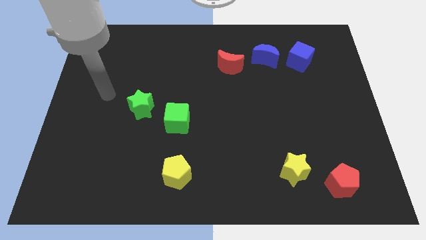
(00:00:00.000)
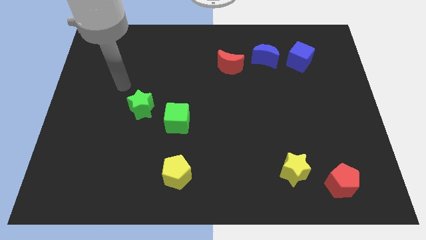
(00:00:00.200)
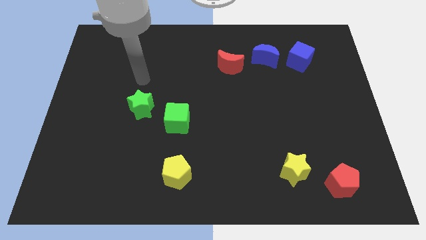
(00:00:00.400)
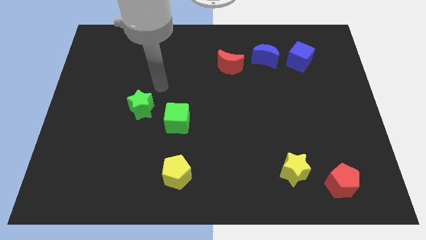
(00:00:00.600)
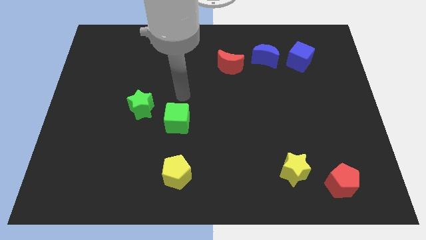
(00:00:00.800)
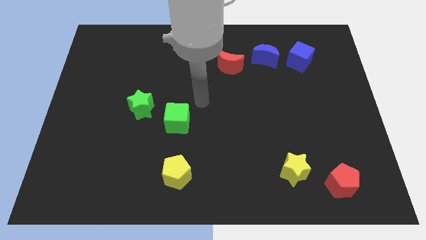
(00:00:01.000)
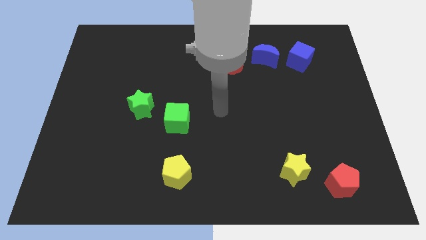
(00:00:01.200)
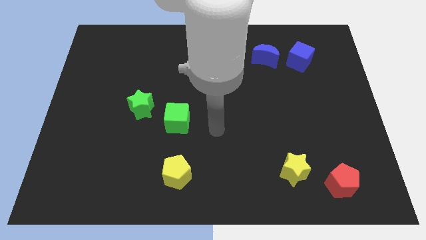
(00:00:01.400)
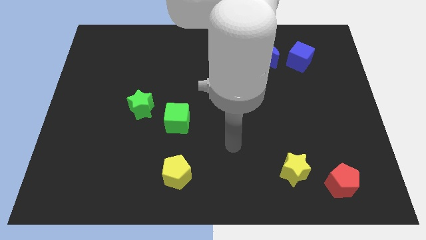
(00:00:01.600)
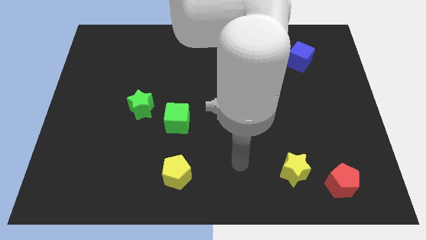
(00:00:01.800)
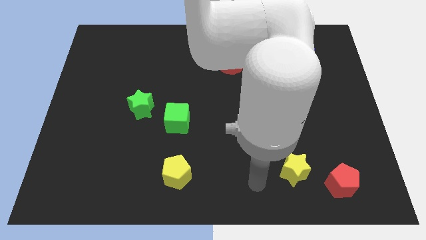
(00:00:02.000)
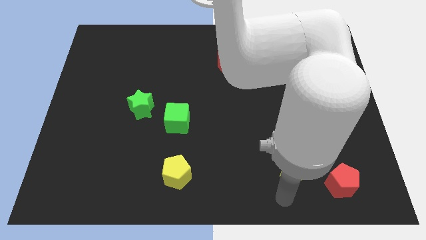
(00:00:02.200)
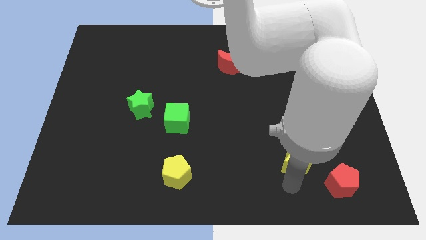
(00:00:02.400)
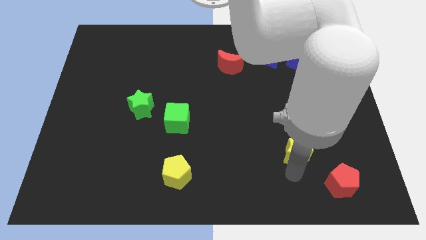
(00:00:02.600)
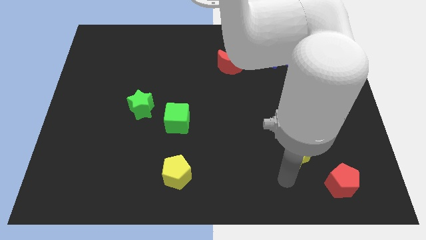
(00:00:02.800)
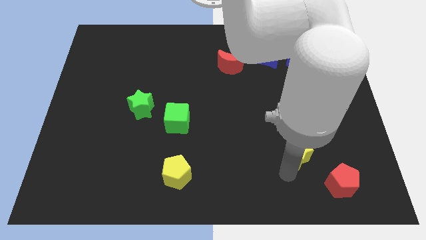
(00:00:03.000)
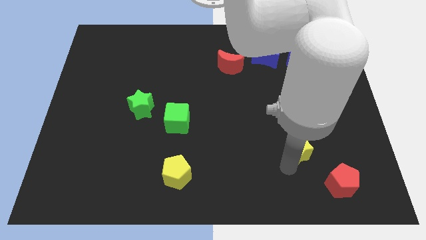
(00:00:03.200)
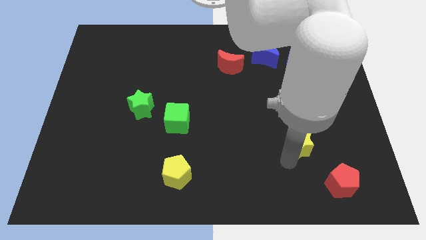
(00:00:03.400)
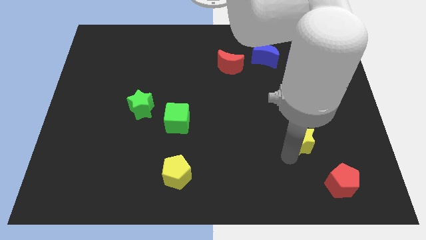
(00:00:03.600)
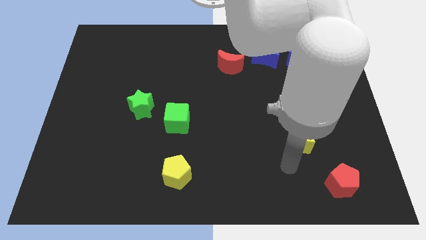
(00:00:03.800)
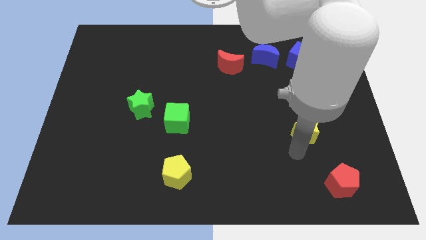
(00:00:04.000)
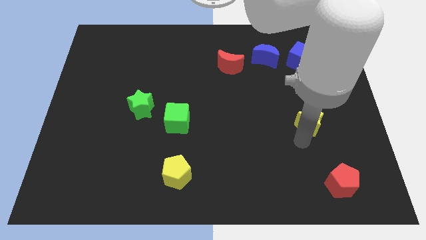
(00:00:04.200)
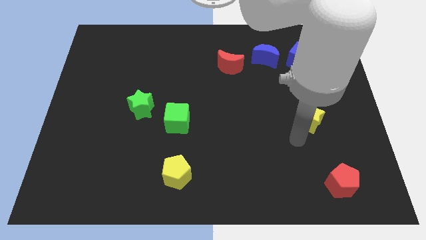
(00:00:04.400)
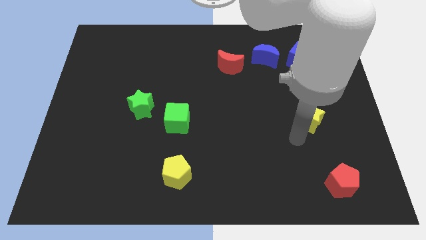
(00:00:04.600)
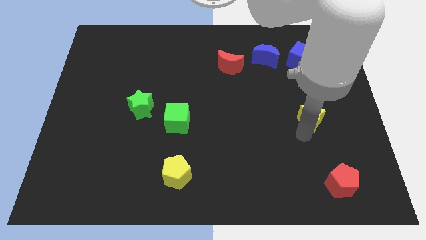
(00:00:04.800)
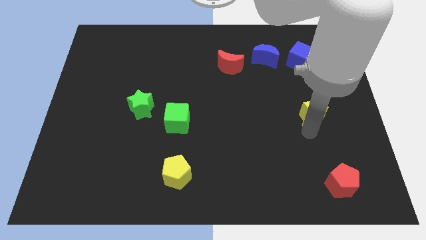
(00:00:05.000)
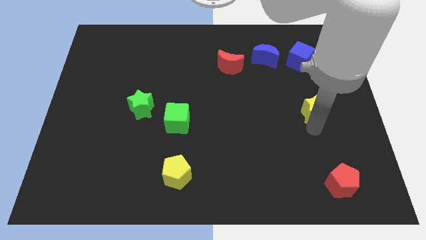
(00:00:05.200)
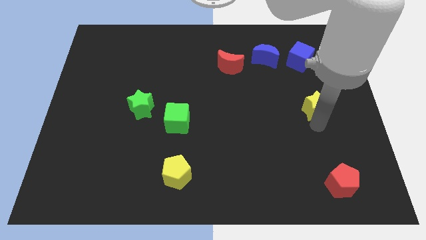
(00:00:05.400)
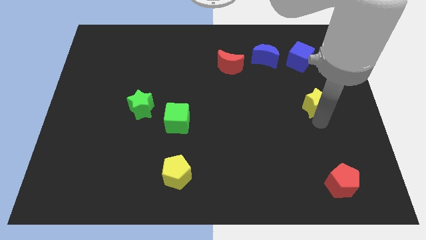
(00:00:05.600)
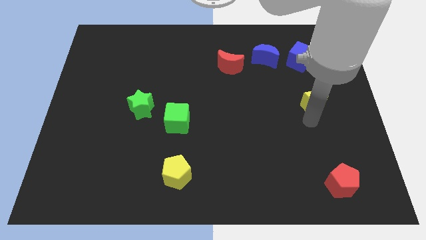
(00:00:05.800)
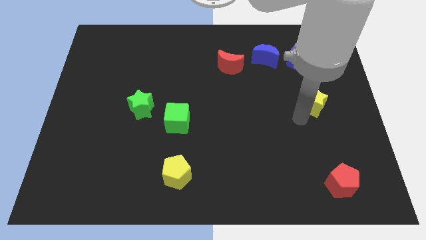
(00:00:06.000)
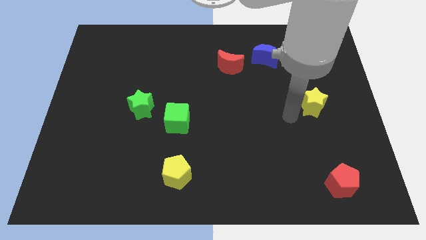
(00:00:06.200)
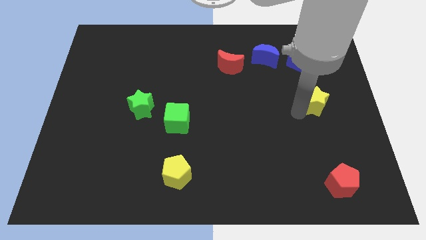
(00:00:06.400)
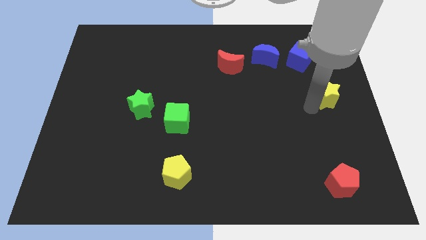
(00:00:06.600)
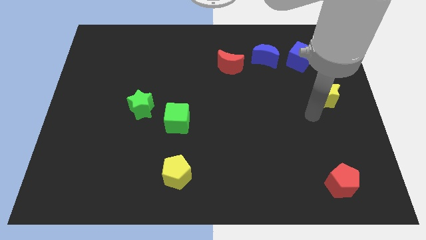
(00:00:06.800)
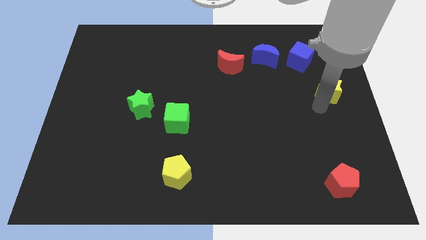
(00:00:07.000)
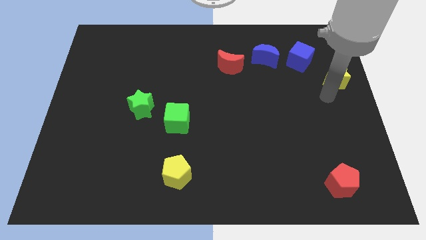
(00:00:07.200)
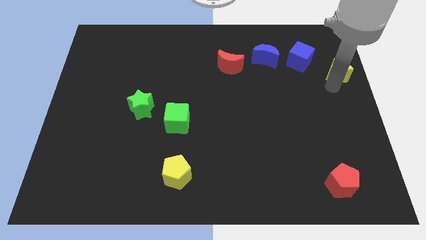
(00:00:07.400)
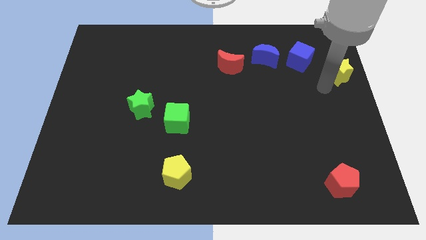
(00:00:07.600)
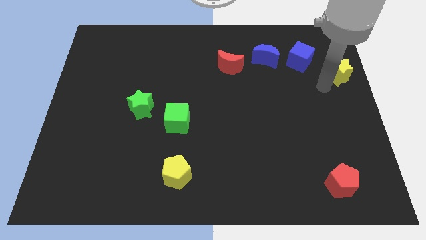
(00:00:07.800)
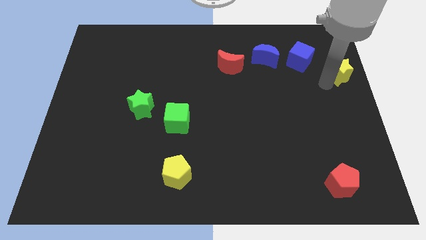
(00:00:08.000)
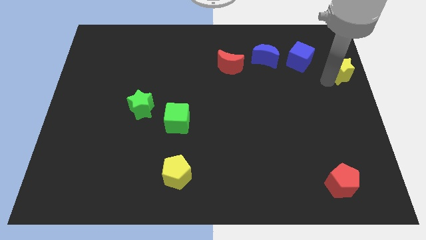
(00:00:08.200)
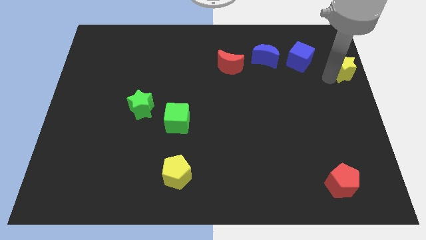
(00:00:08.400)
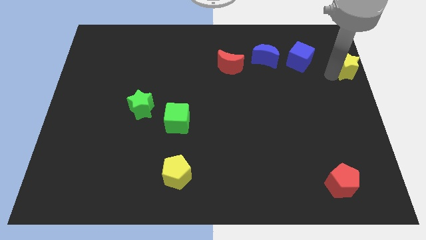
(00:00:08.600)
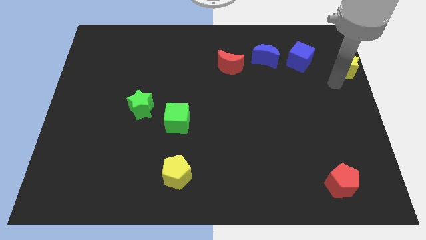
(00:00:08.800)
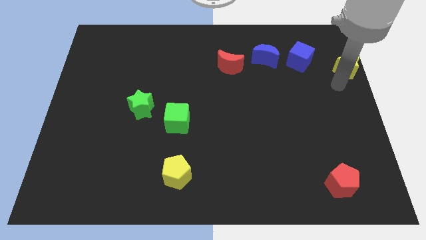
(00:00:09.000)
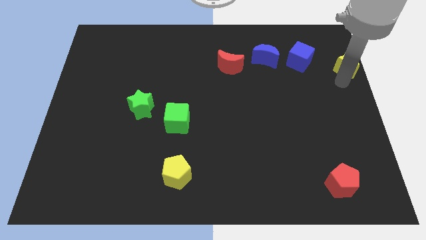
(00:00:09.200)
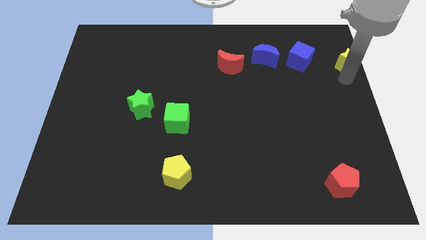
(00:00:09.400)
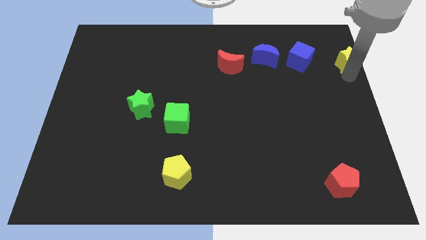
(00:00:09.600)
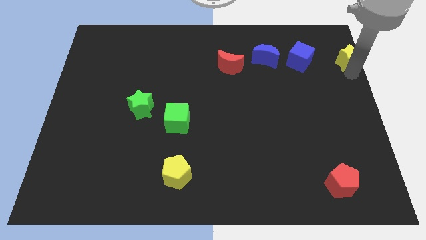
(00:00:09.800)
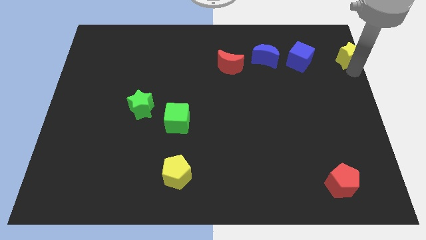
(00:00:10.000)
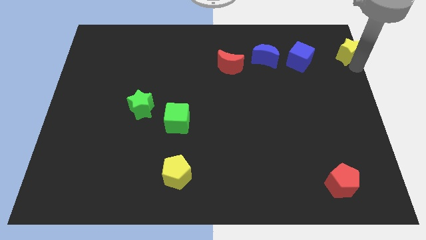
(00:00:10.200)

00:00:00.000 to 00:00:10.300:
move the yellow star to the top right

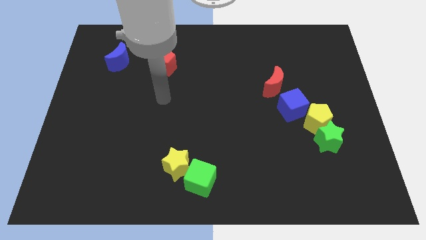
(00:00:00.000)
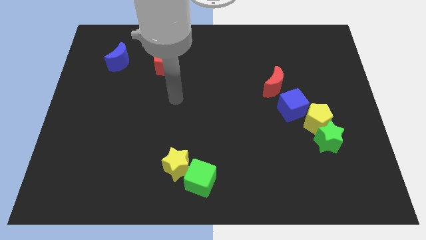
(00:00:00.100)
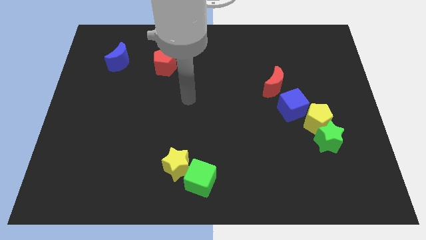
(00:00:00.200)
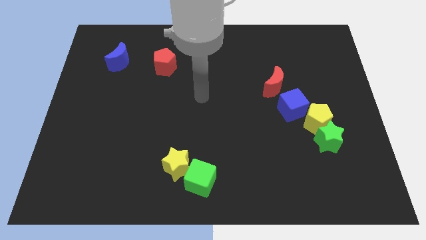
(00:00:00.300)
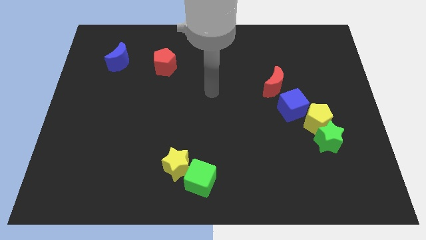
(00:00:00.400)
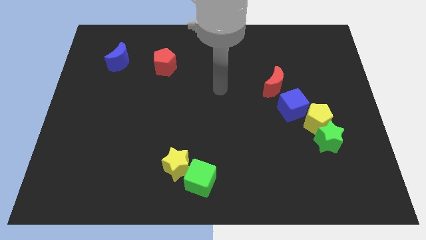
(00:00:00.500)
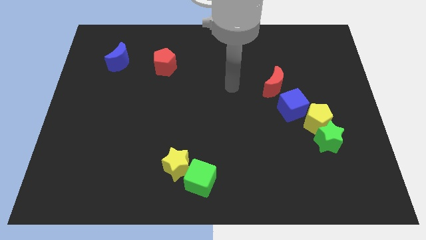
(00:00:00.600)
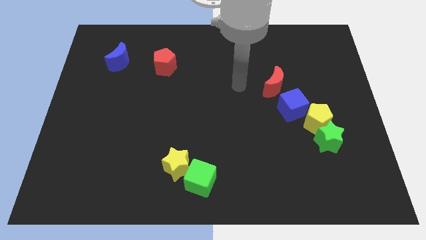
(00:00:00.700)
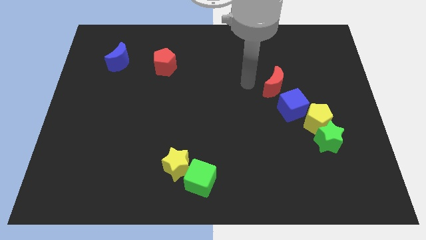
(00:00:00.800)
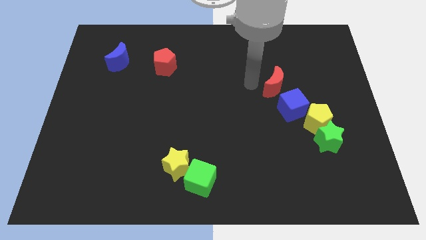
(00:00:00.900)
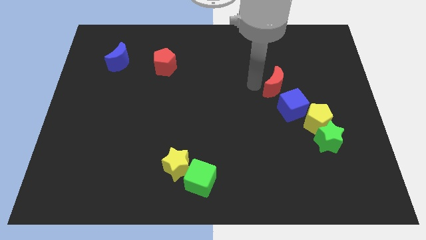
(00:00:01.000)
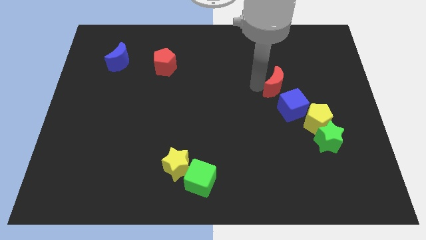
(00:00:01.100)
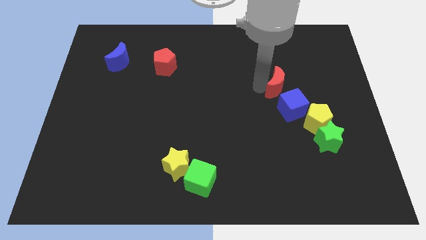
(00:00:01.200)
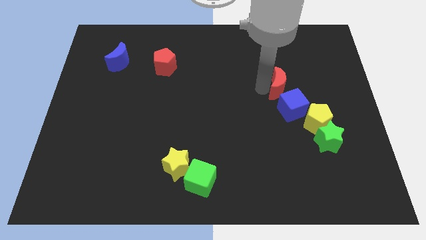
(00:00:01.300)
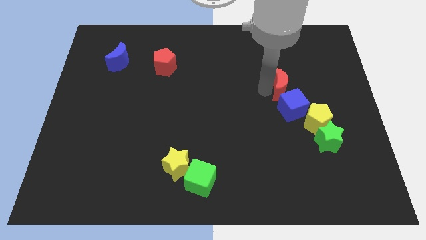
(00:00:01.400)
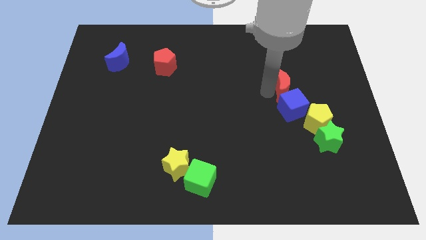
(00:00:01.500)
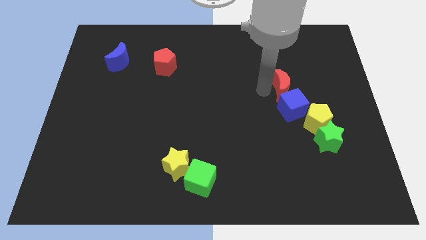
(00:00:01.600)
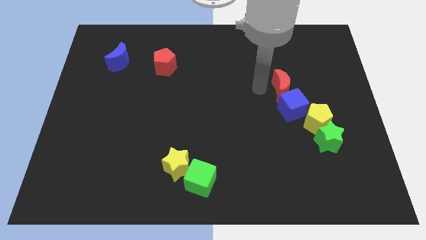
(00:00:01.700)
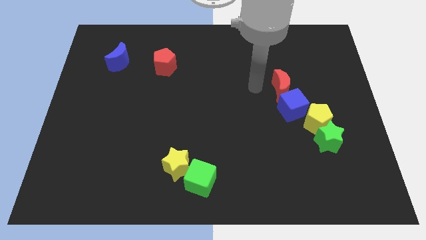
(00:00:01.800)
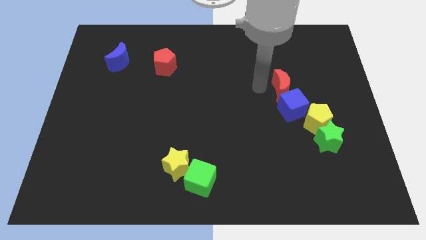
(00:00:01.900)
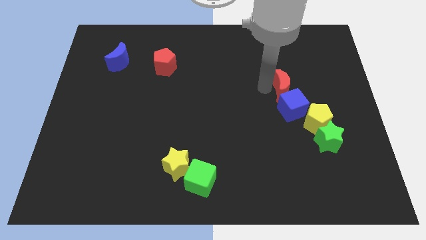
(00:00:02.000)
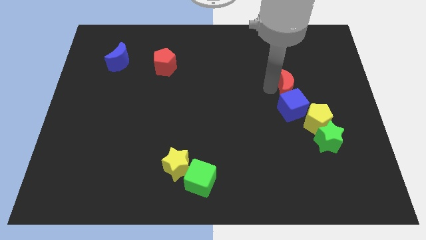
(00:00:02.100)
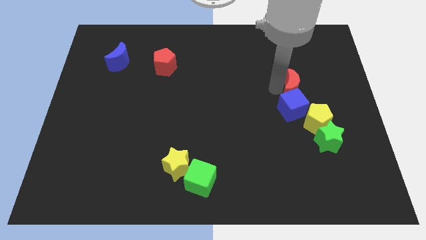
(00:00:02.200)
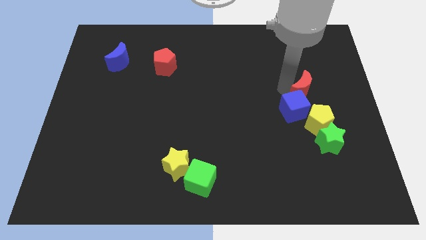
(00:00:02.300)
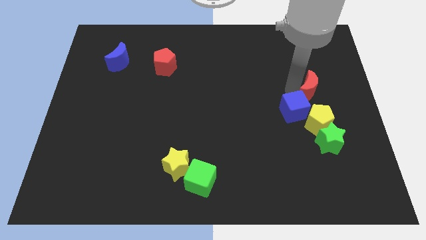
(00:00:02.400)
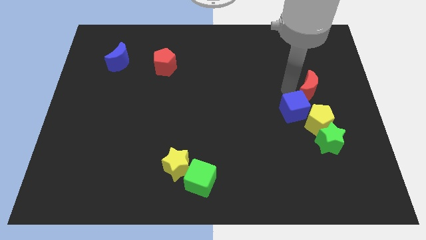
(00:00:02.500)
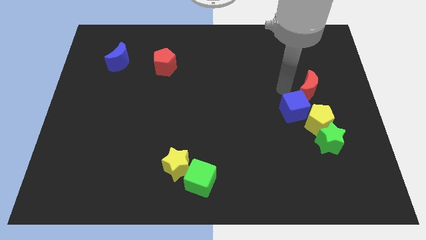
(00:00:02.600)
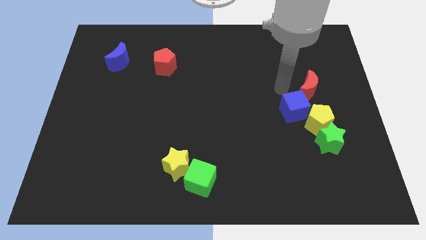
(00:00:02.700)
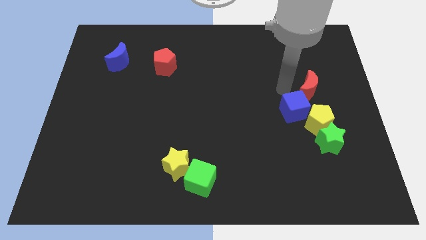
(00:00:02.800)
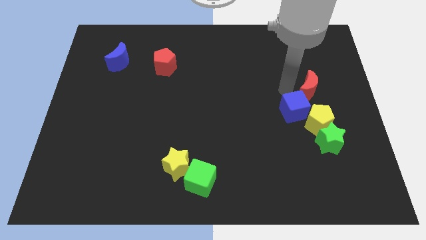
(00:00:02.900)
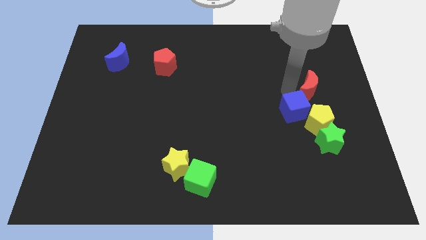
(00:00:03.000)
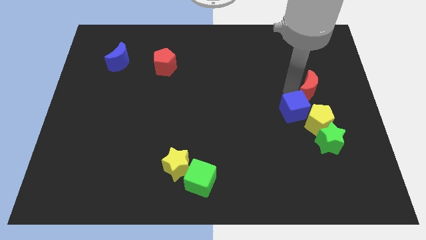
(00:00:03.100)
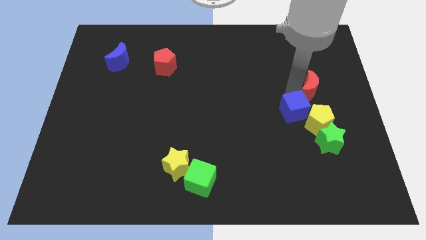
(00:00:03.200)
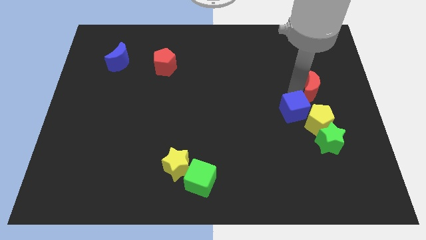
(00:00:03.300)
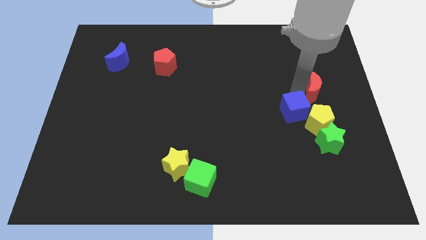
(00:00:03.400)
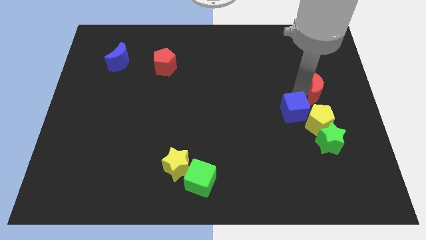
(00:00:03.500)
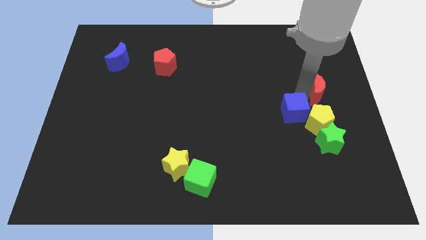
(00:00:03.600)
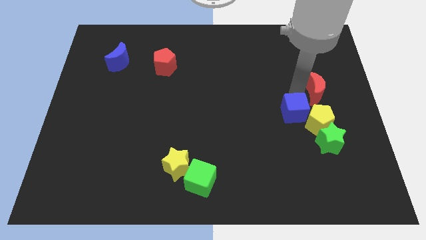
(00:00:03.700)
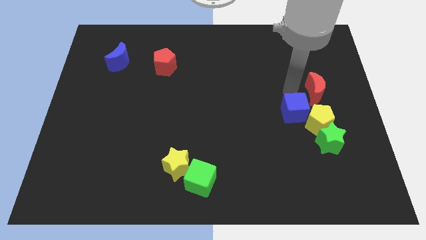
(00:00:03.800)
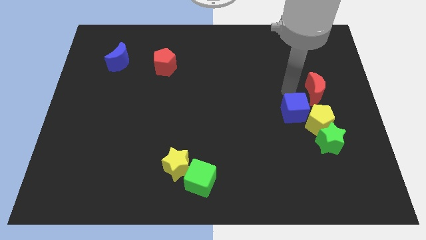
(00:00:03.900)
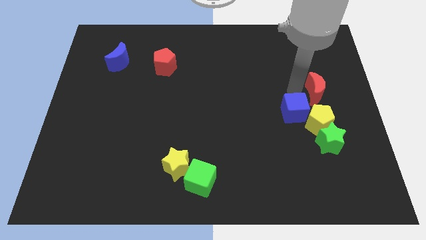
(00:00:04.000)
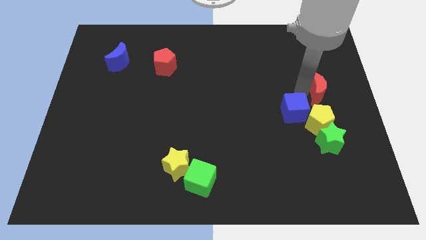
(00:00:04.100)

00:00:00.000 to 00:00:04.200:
slide the red moon to the center right
